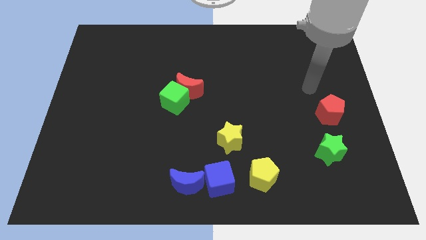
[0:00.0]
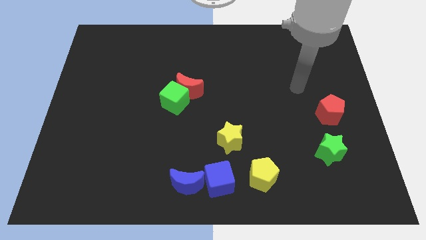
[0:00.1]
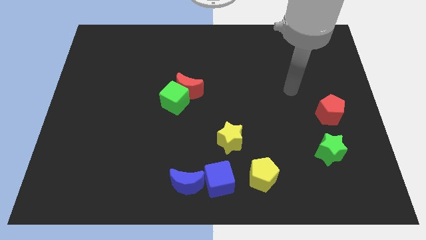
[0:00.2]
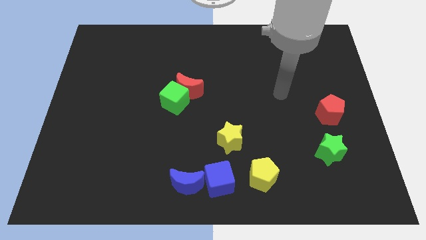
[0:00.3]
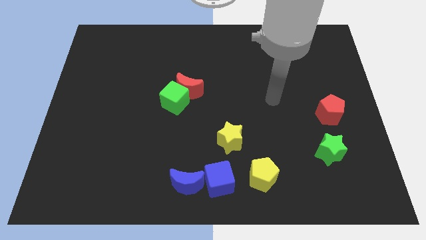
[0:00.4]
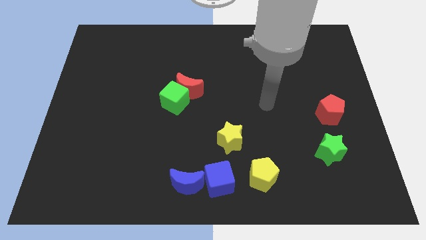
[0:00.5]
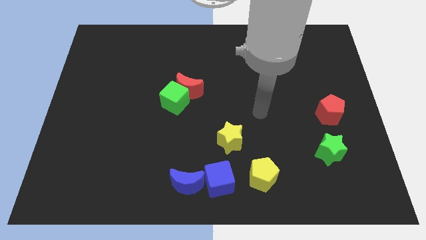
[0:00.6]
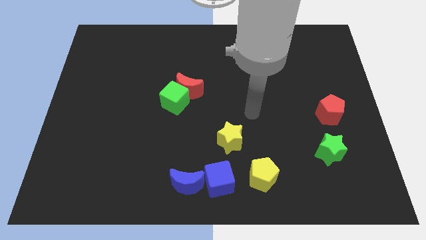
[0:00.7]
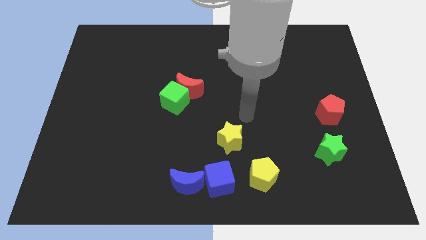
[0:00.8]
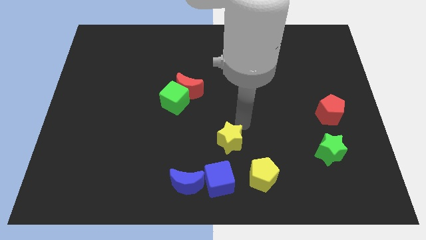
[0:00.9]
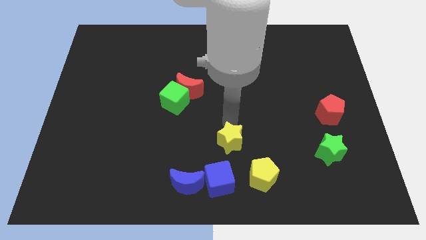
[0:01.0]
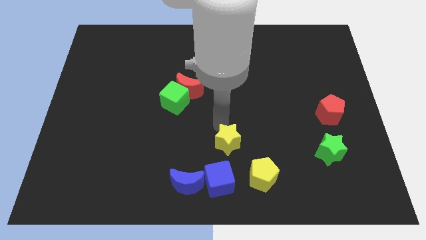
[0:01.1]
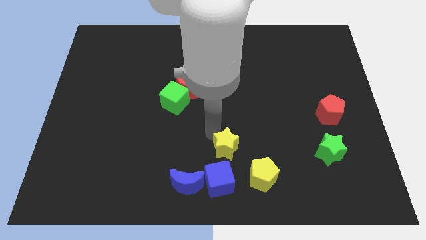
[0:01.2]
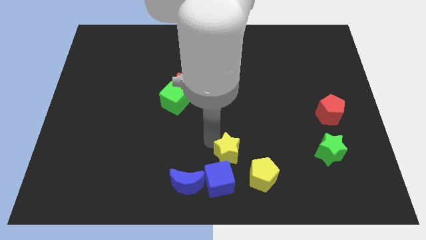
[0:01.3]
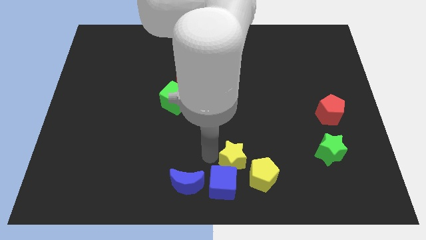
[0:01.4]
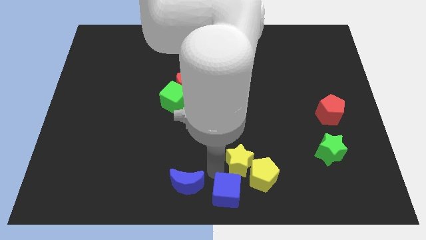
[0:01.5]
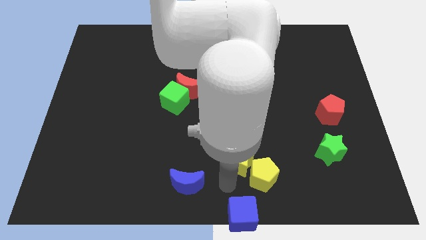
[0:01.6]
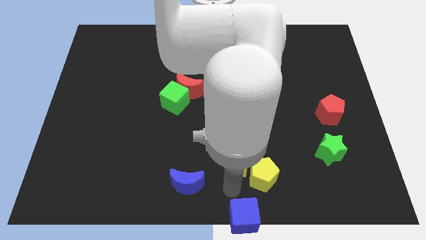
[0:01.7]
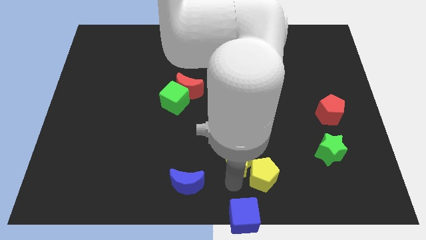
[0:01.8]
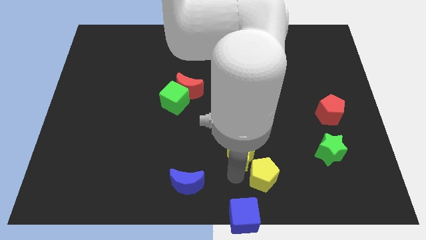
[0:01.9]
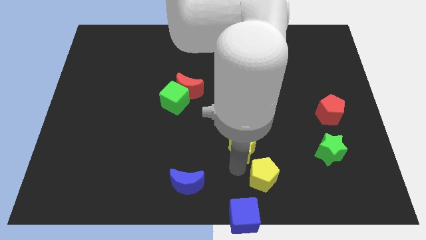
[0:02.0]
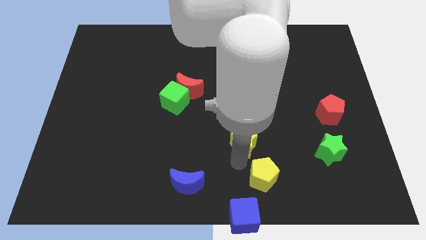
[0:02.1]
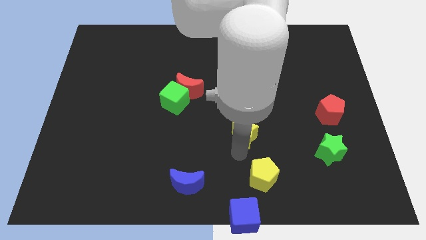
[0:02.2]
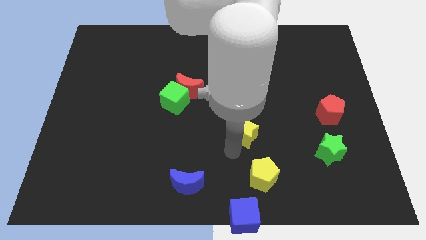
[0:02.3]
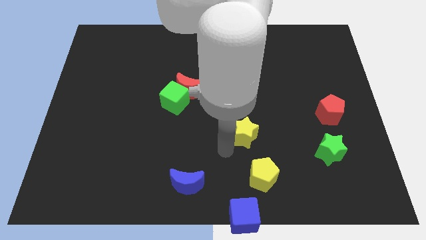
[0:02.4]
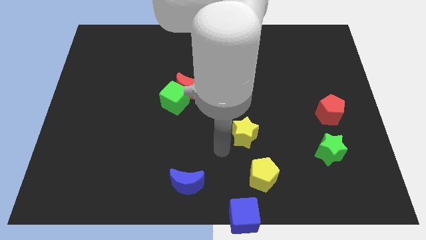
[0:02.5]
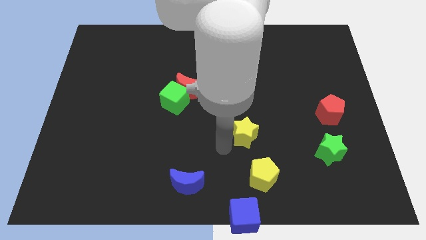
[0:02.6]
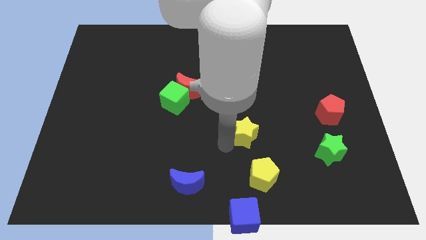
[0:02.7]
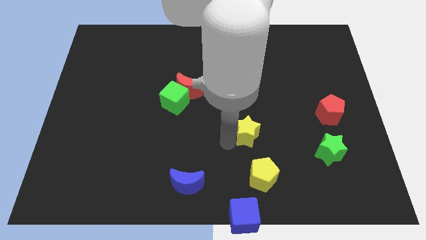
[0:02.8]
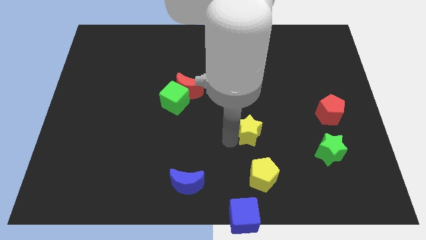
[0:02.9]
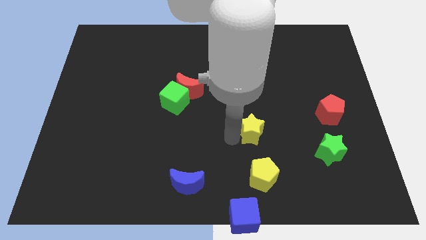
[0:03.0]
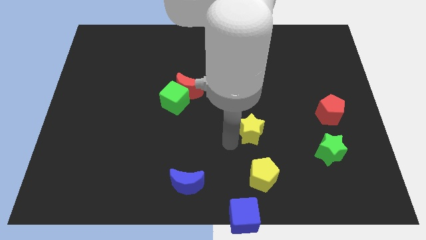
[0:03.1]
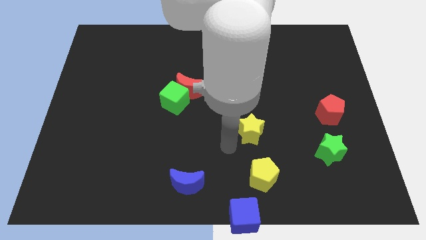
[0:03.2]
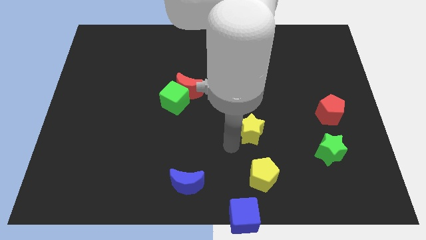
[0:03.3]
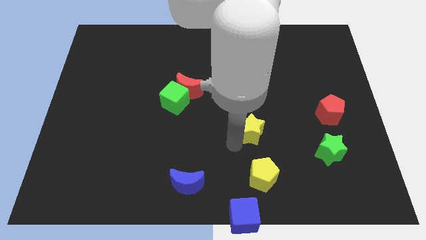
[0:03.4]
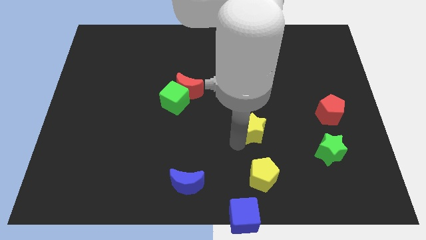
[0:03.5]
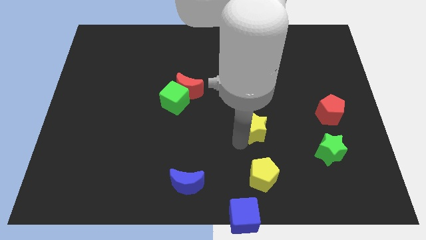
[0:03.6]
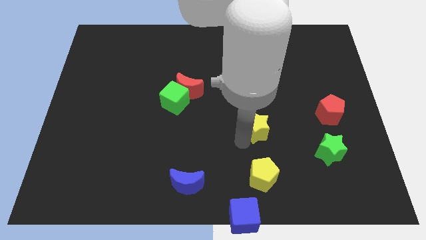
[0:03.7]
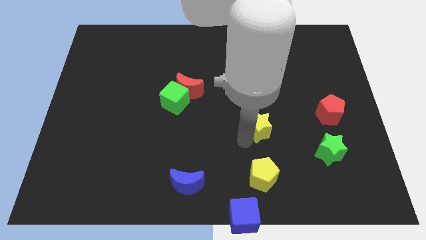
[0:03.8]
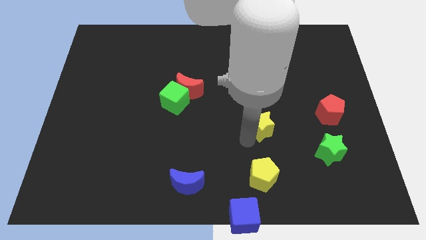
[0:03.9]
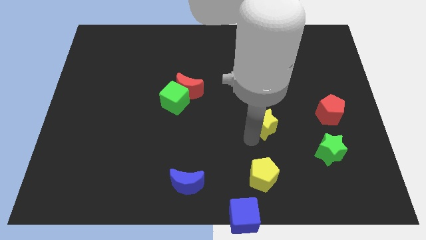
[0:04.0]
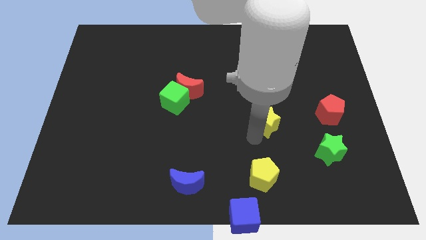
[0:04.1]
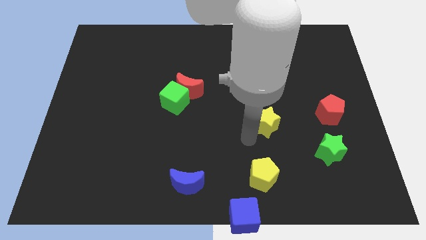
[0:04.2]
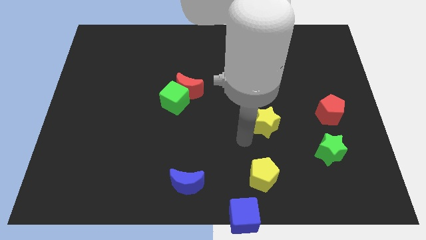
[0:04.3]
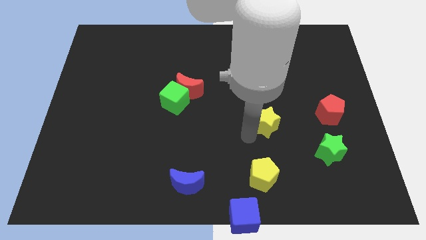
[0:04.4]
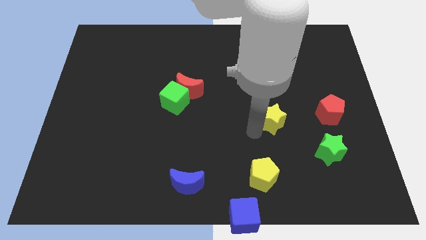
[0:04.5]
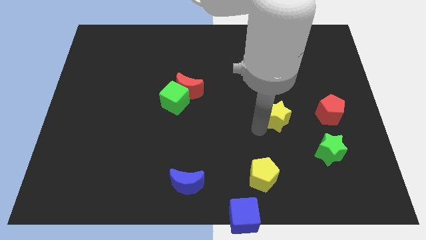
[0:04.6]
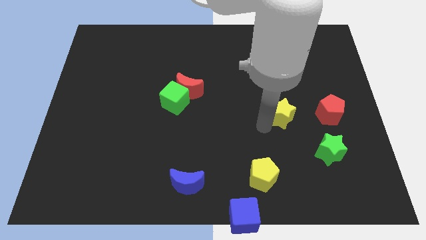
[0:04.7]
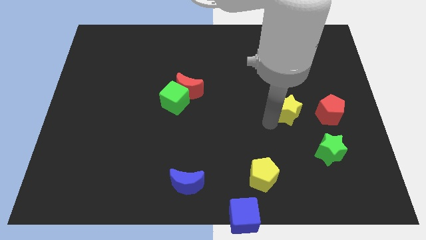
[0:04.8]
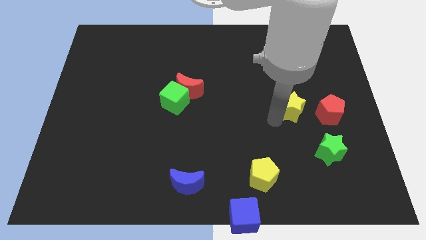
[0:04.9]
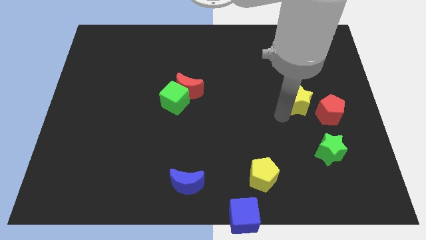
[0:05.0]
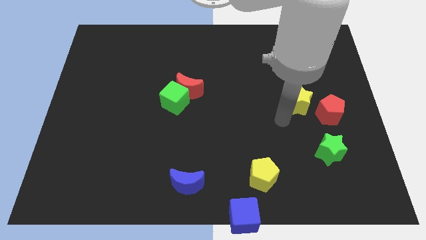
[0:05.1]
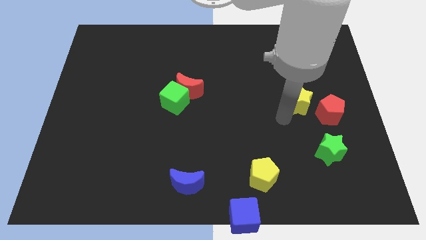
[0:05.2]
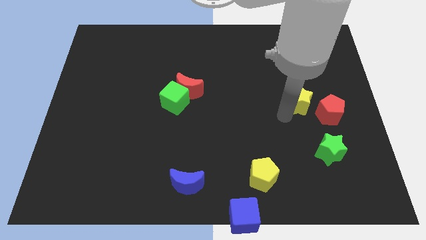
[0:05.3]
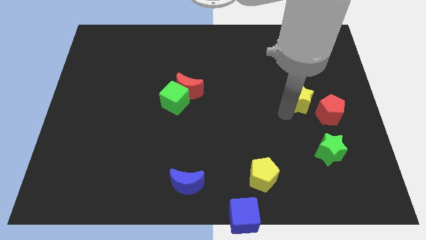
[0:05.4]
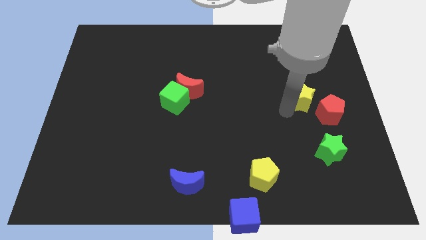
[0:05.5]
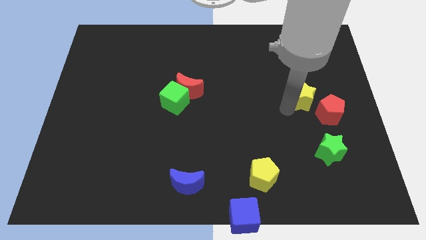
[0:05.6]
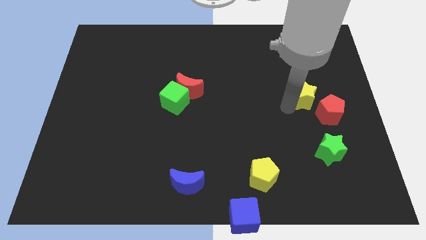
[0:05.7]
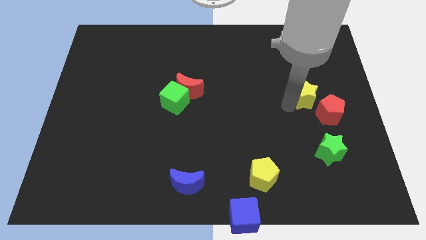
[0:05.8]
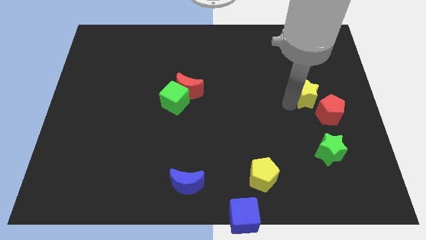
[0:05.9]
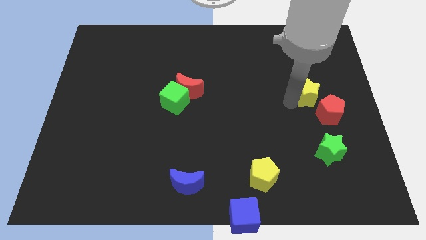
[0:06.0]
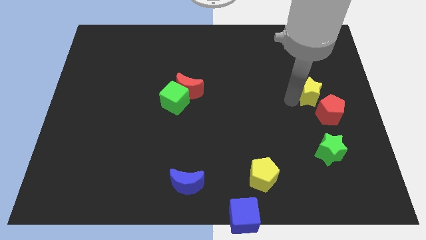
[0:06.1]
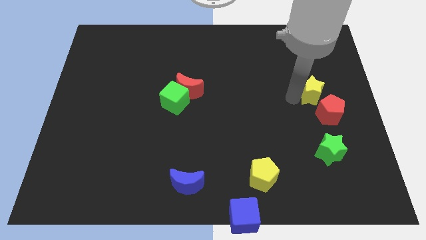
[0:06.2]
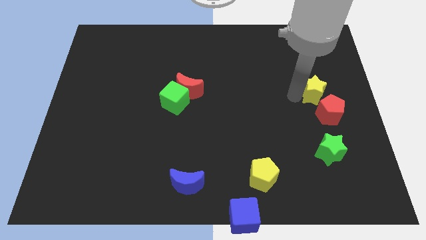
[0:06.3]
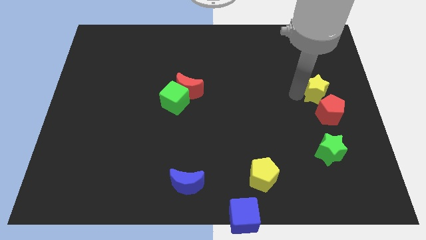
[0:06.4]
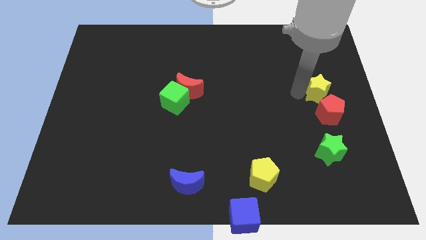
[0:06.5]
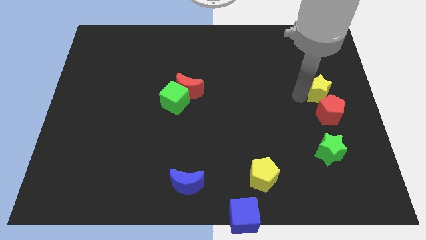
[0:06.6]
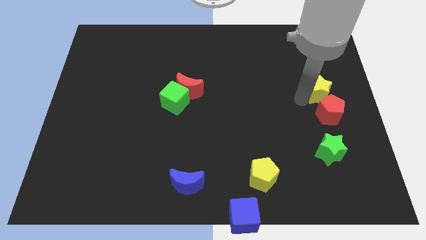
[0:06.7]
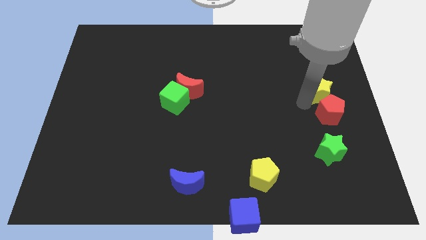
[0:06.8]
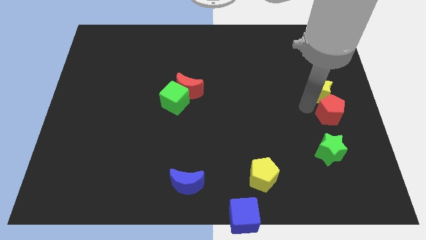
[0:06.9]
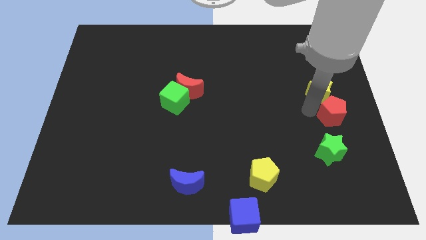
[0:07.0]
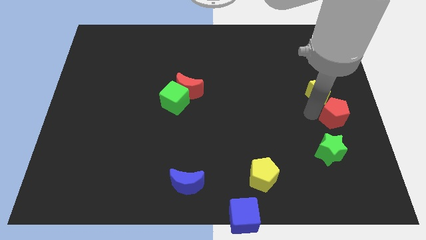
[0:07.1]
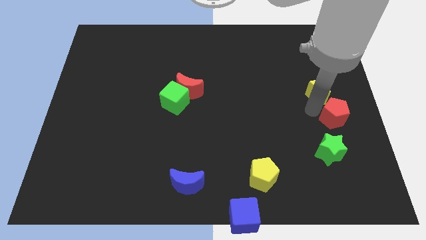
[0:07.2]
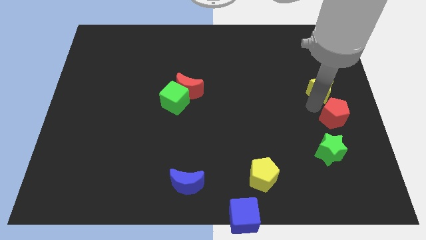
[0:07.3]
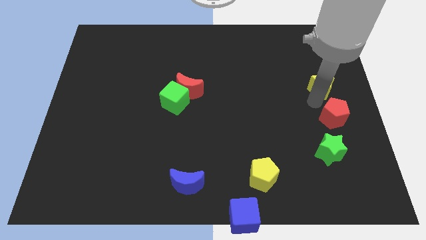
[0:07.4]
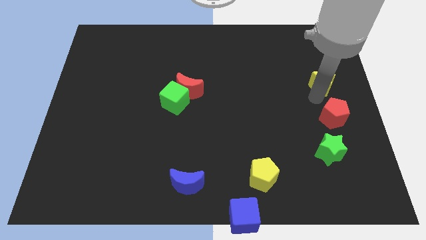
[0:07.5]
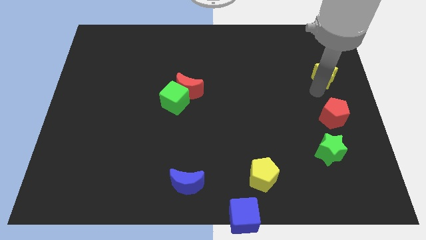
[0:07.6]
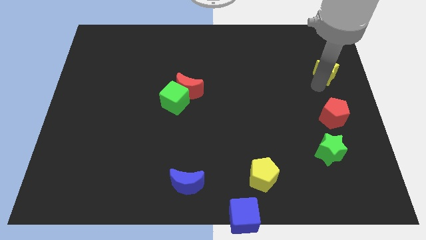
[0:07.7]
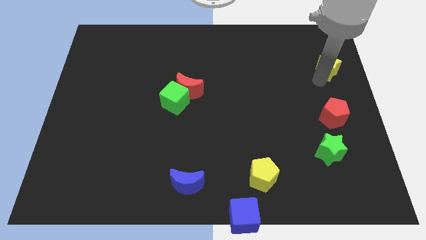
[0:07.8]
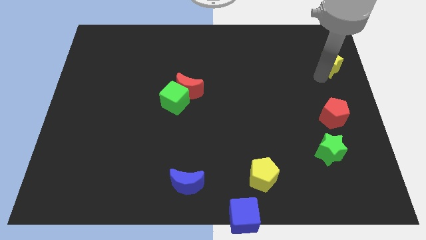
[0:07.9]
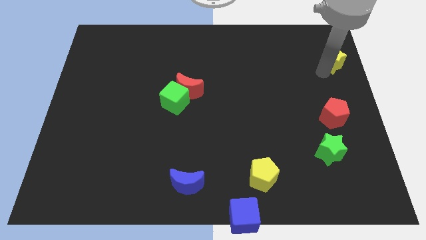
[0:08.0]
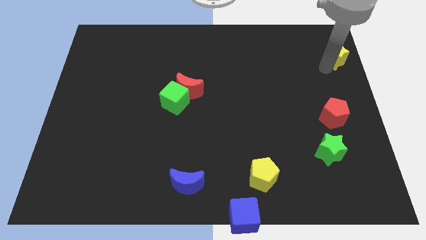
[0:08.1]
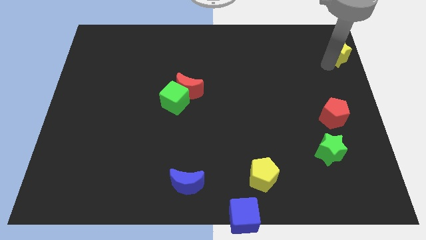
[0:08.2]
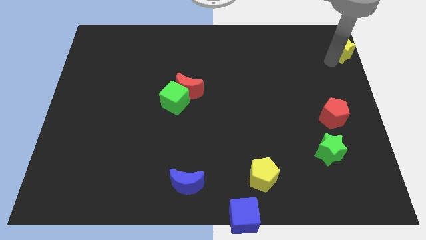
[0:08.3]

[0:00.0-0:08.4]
slide the yellow star to the upper right corner
